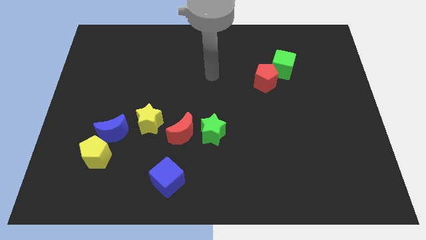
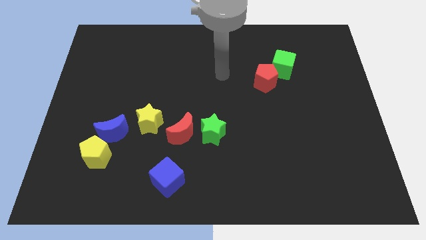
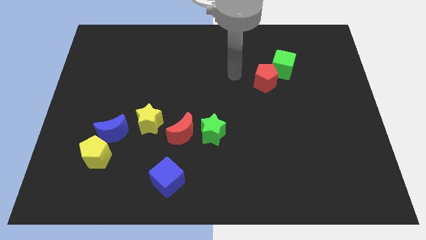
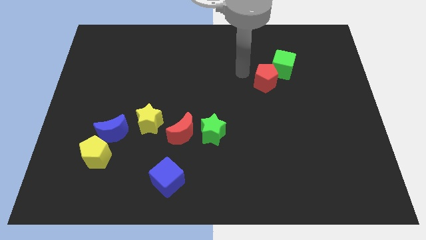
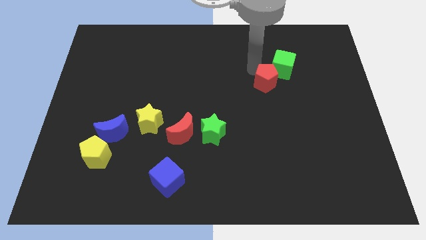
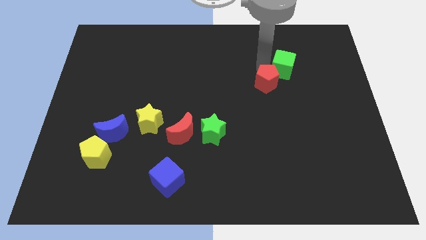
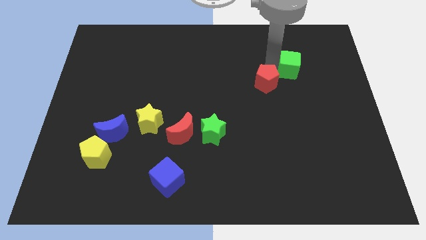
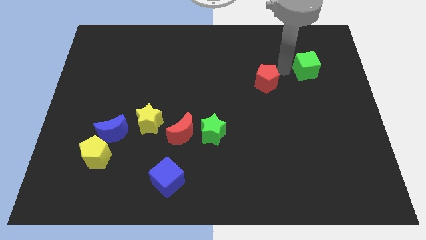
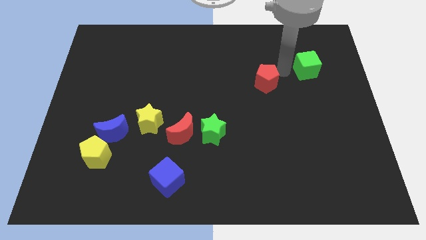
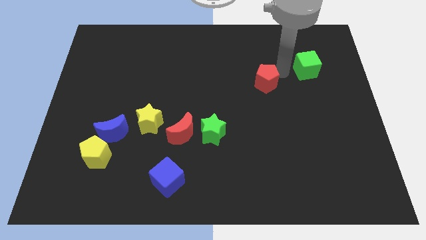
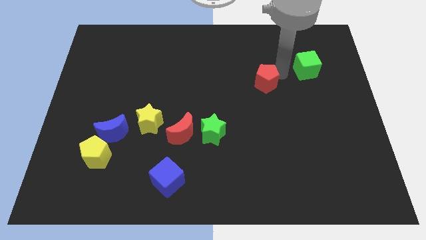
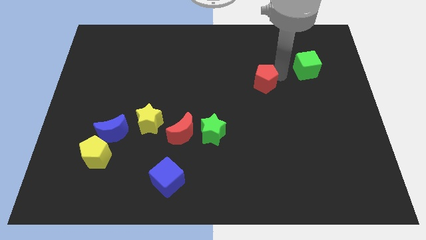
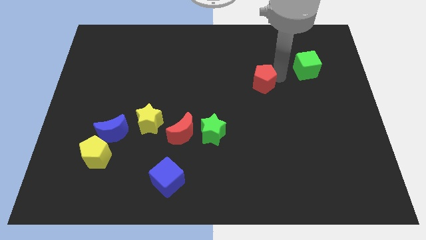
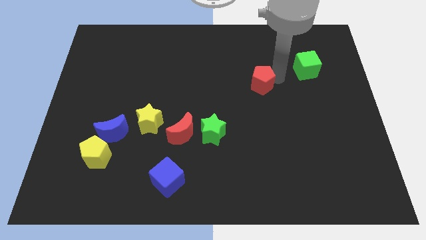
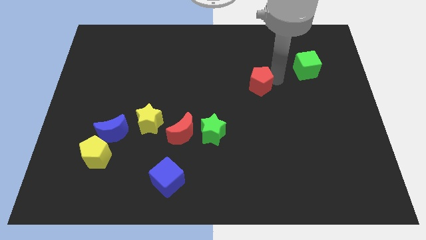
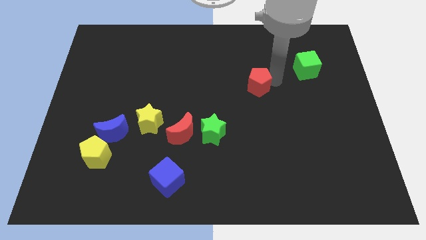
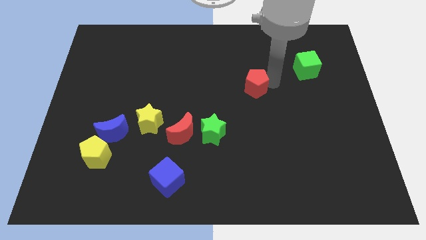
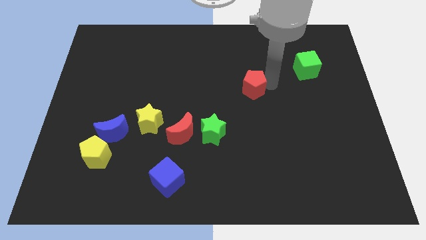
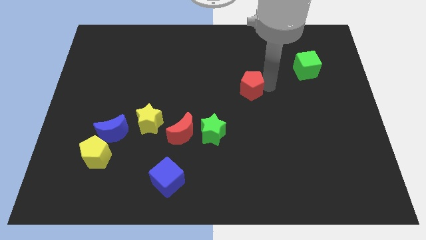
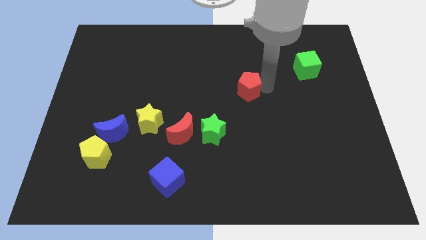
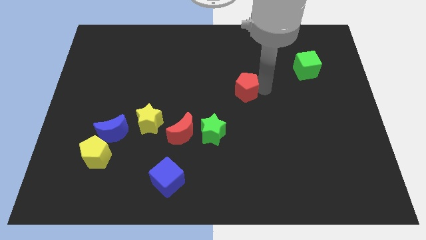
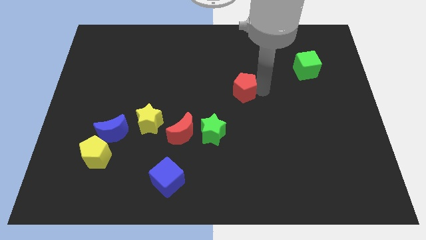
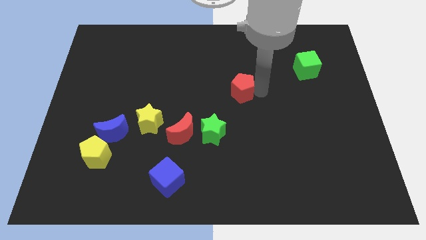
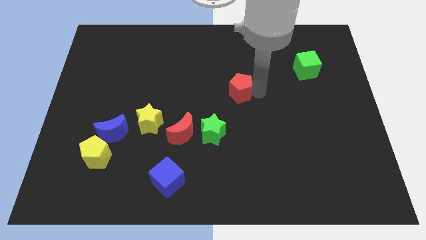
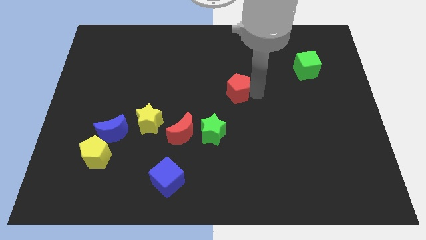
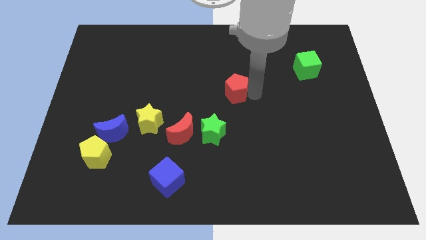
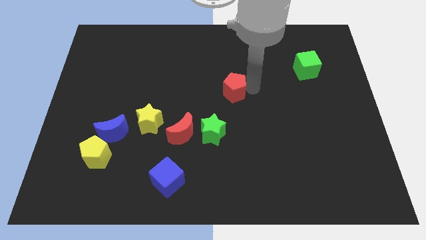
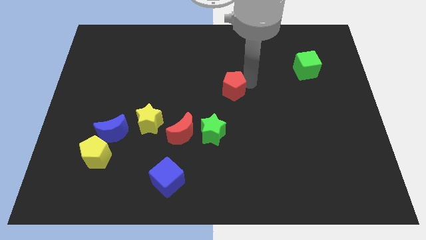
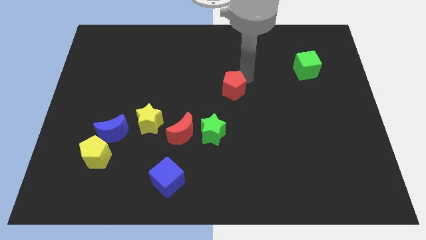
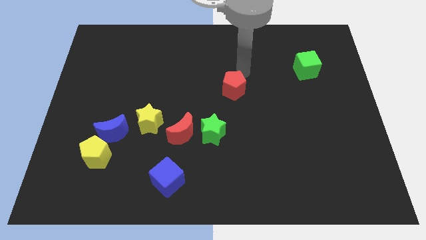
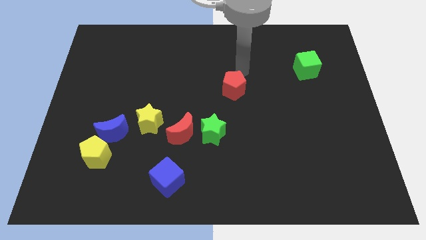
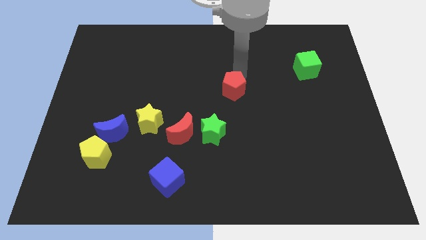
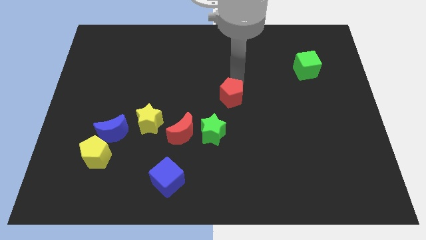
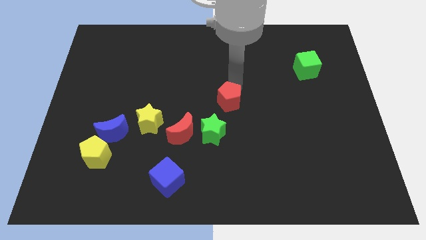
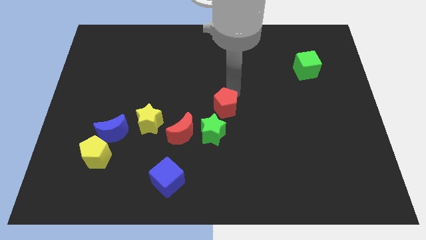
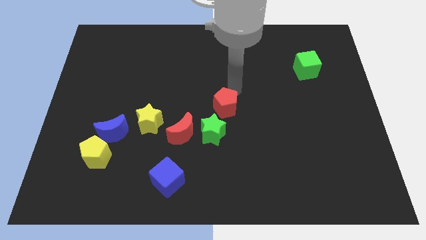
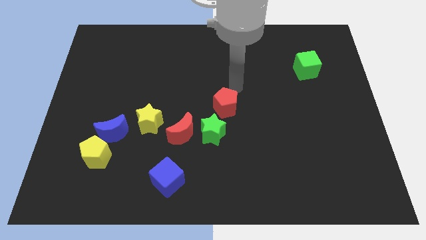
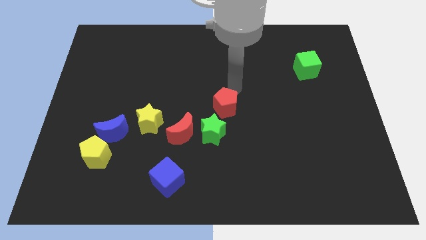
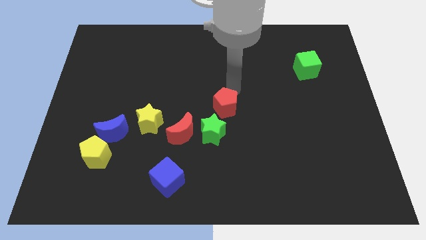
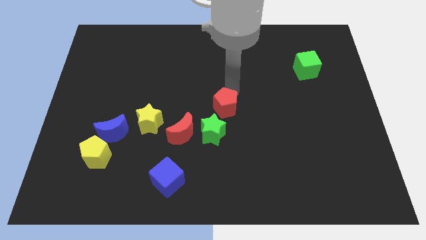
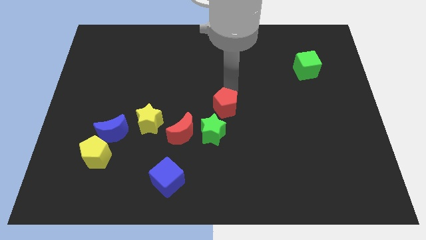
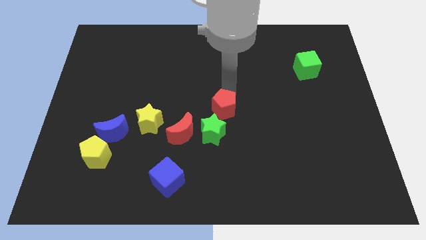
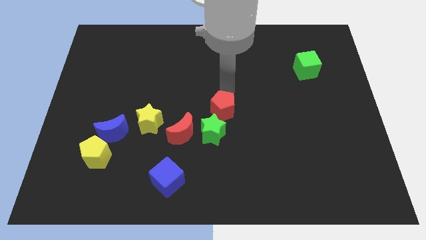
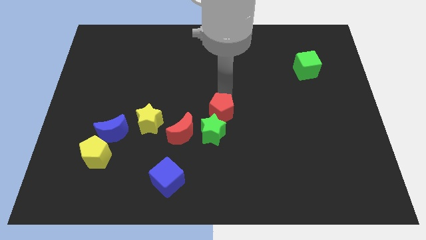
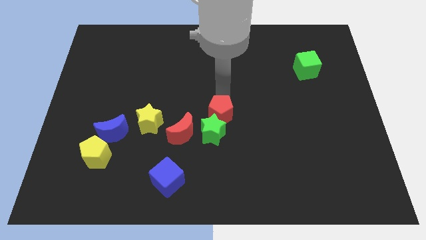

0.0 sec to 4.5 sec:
put the red pentagon close to the green star

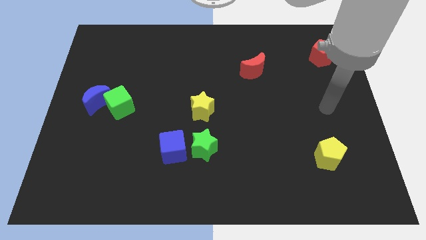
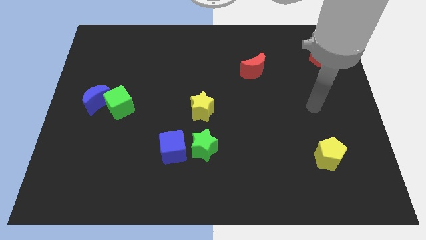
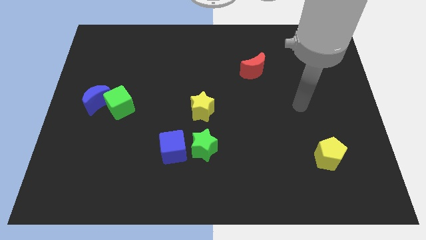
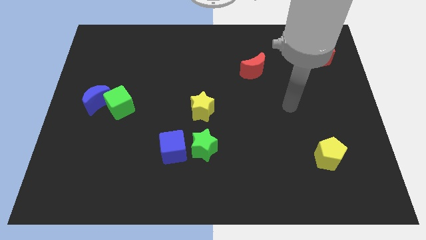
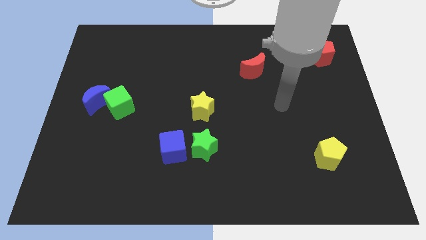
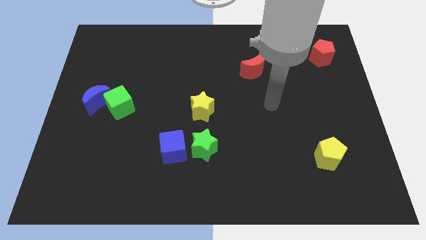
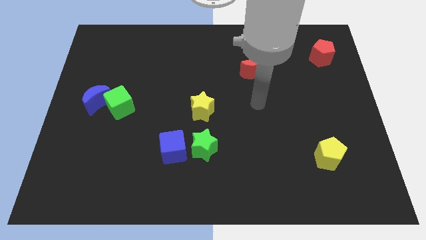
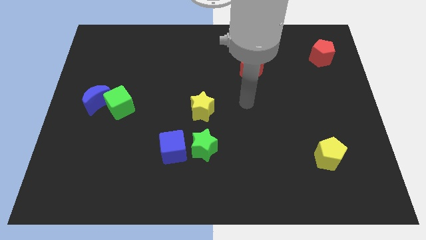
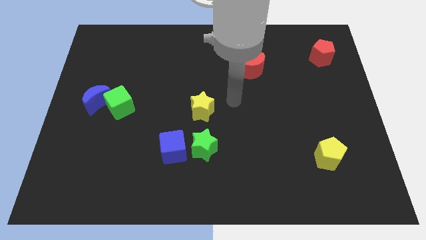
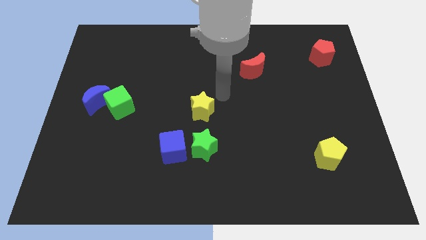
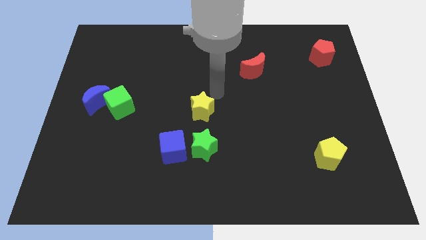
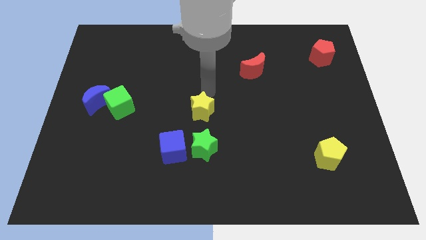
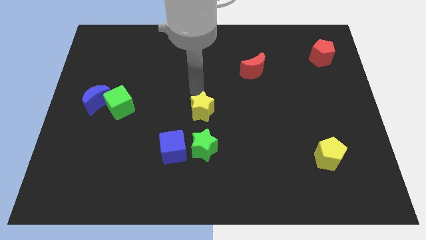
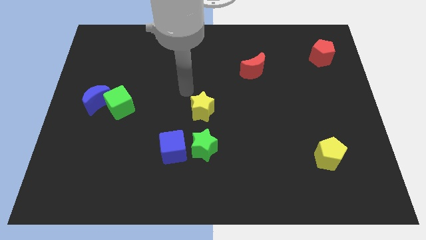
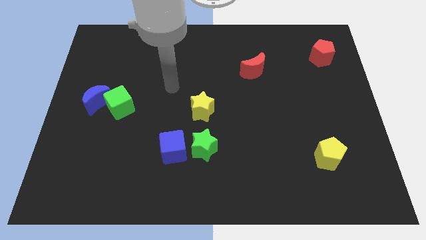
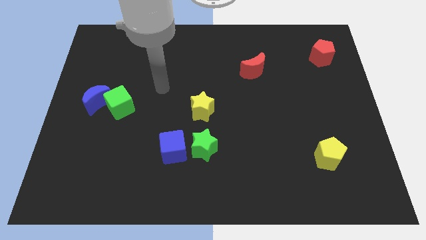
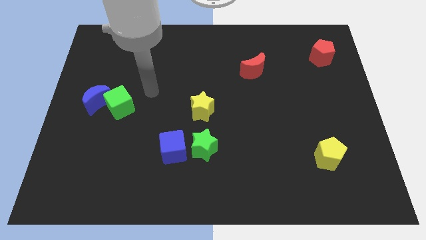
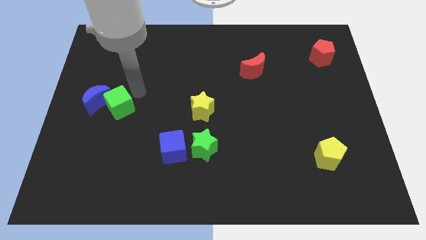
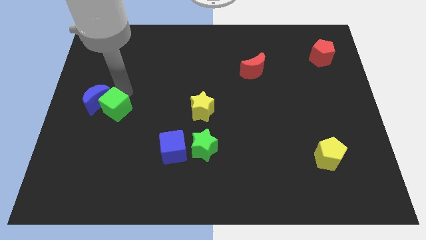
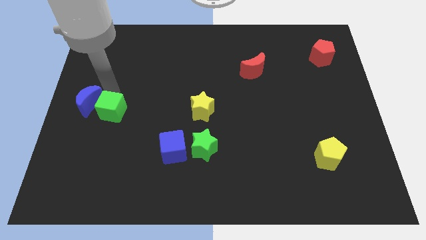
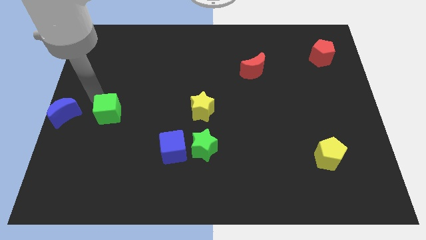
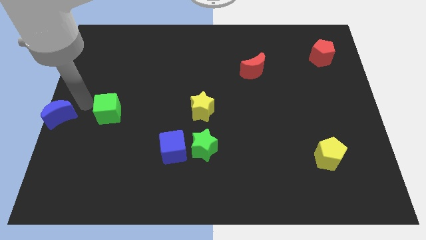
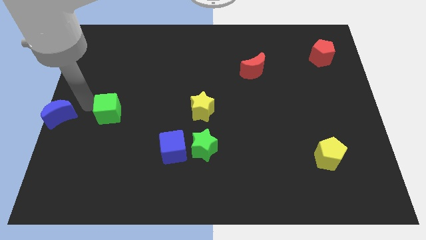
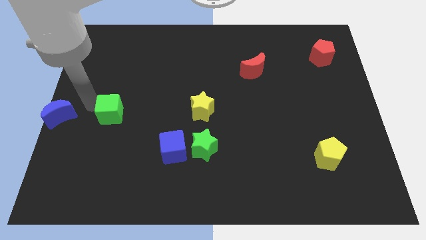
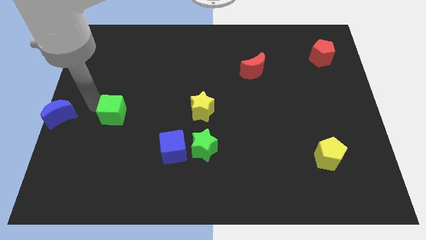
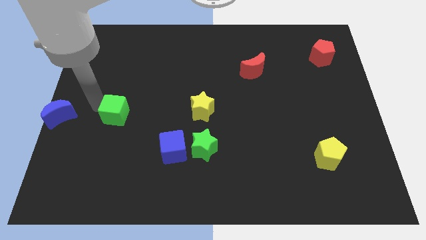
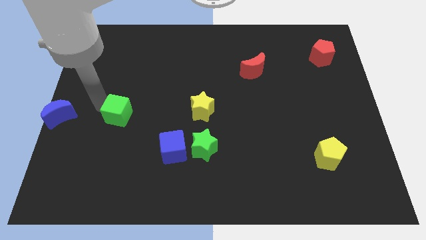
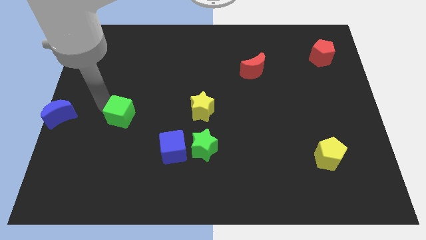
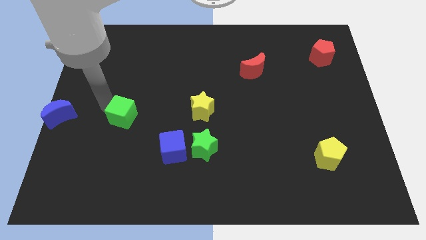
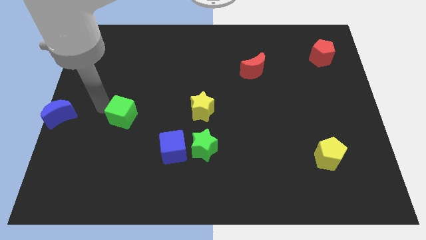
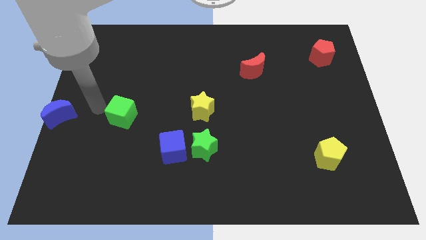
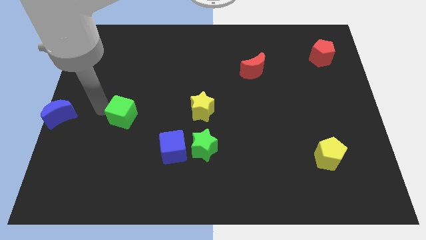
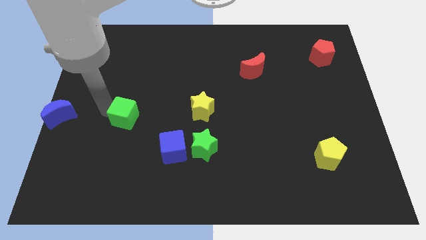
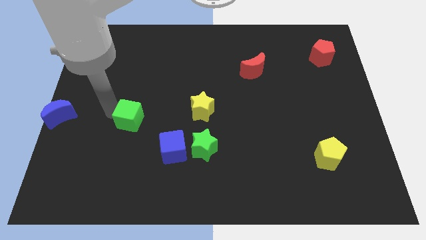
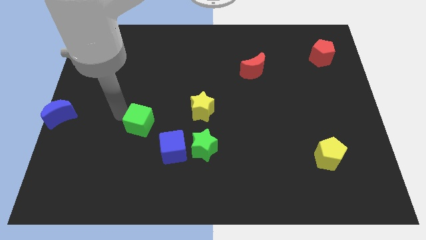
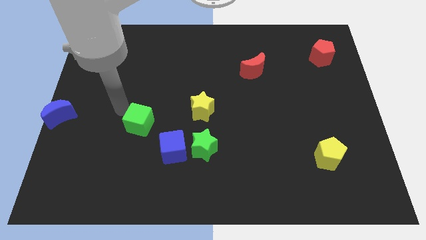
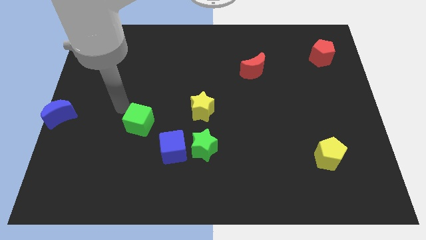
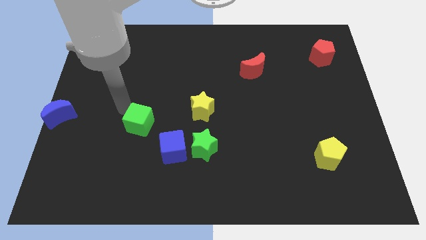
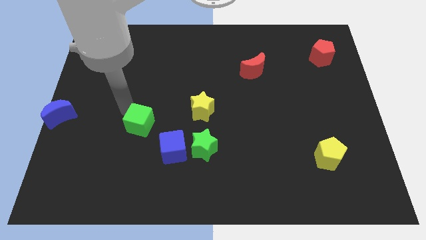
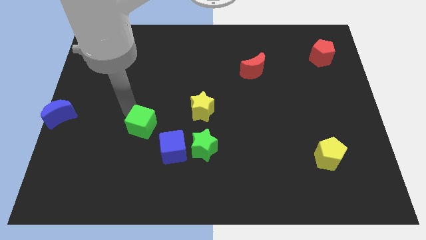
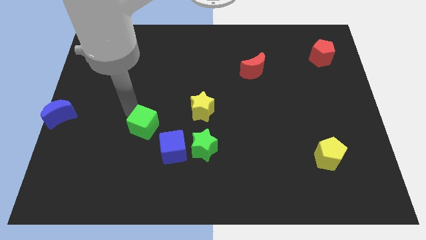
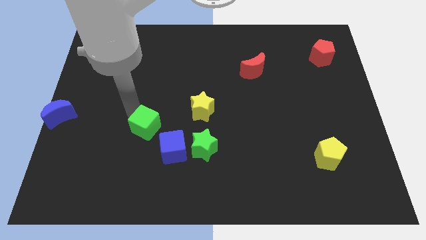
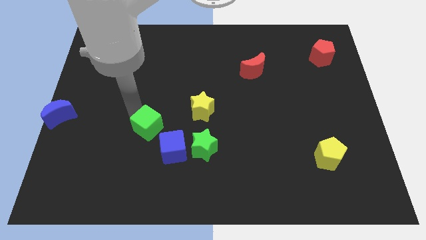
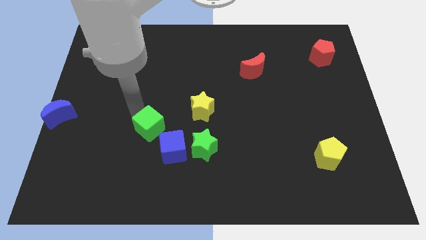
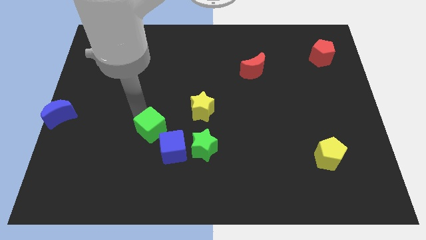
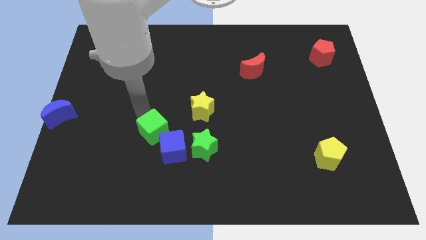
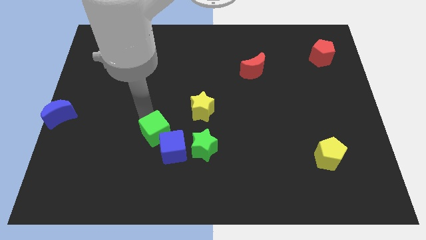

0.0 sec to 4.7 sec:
push the green cube next to the blue cube
